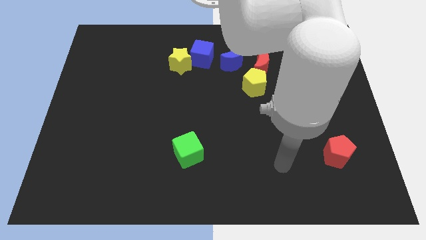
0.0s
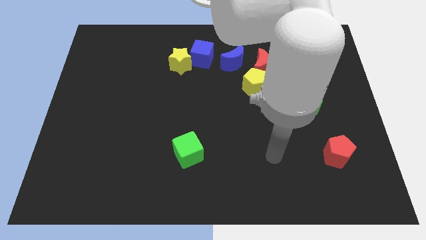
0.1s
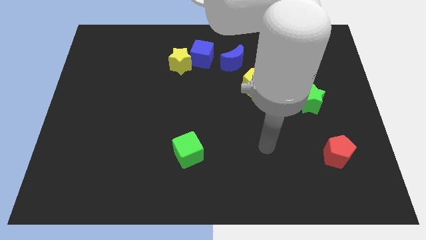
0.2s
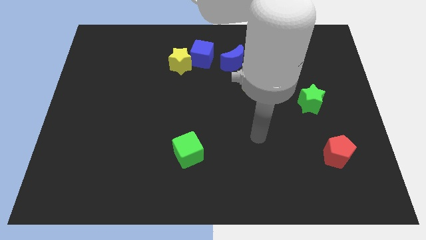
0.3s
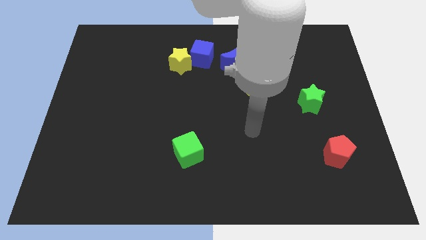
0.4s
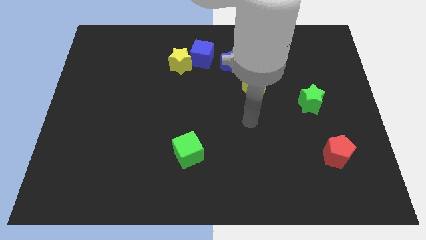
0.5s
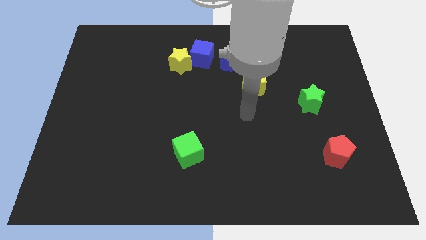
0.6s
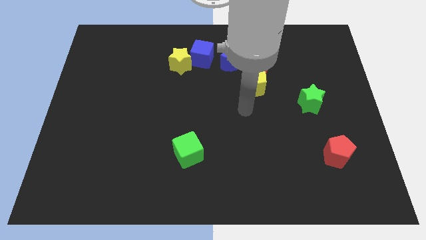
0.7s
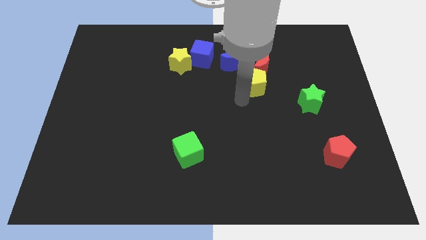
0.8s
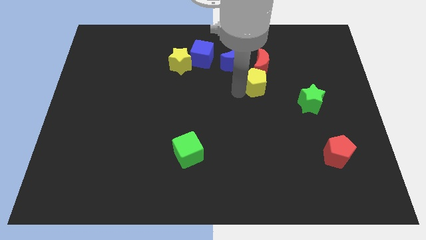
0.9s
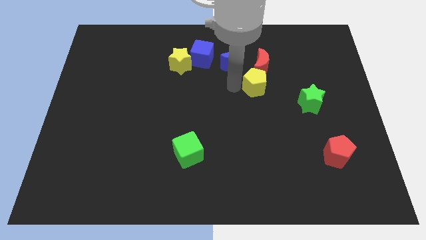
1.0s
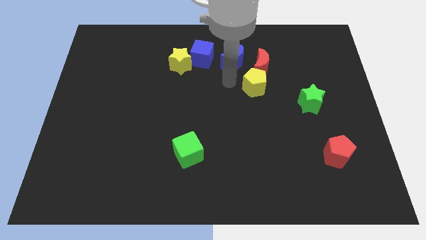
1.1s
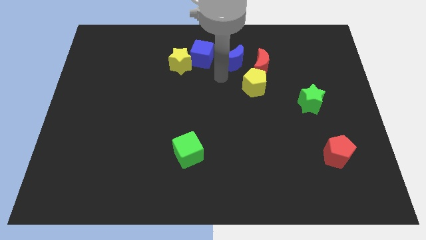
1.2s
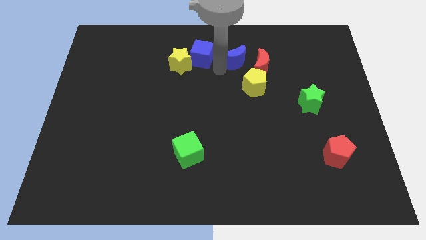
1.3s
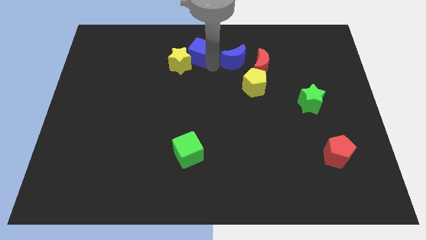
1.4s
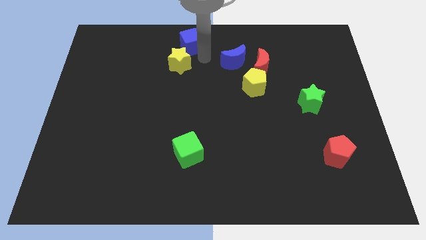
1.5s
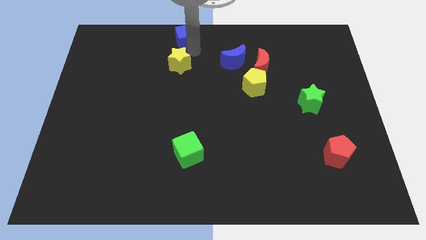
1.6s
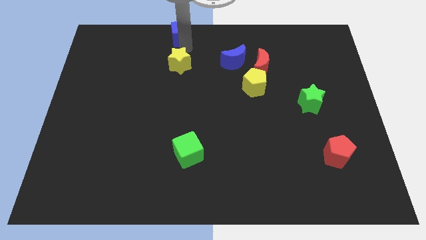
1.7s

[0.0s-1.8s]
pull the yellow star apart from the blue cube

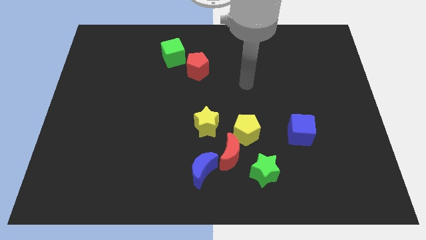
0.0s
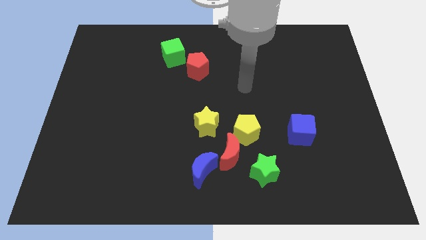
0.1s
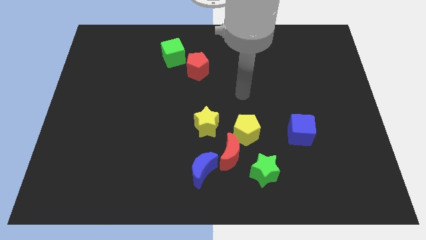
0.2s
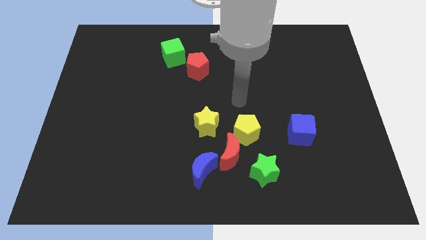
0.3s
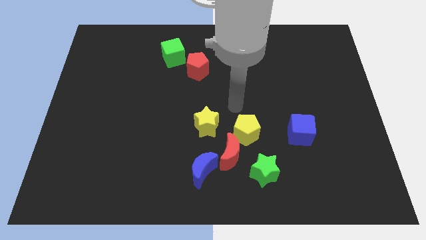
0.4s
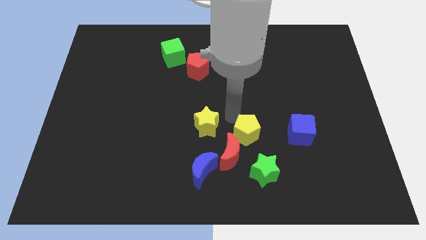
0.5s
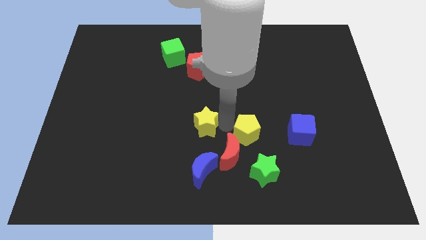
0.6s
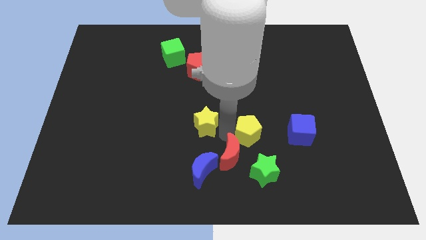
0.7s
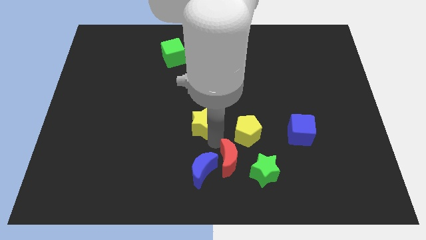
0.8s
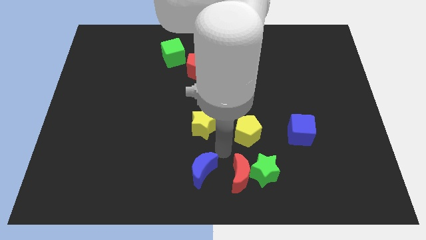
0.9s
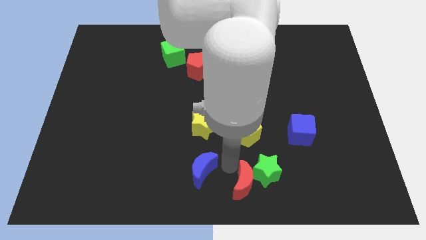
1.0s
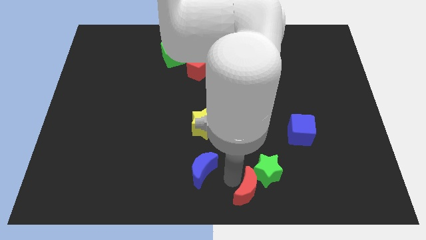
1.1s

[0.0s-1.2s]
move the blue moon away from the red moon

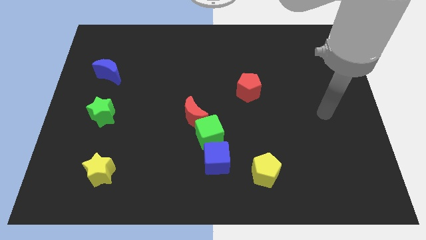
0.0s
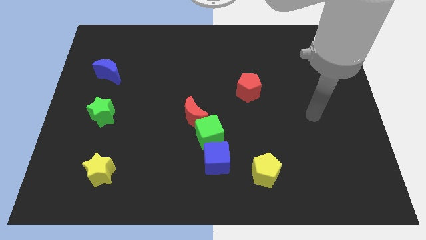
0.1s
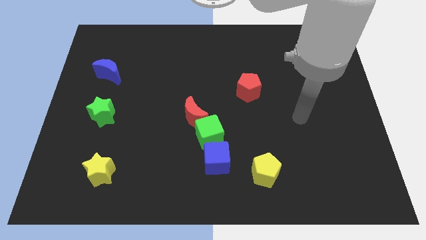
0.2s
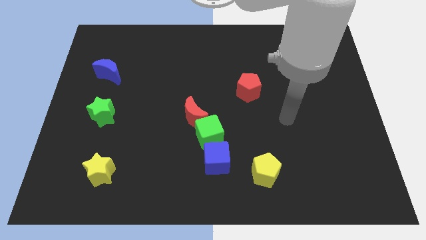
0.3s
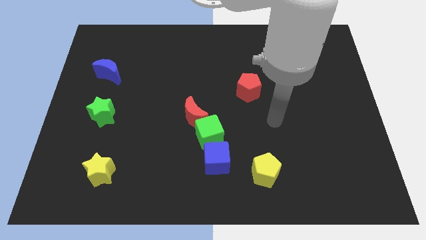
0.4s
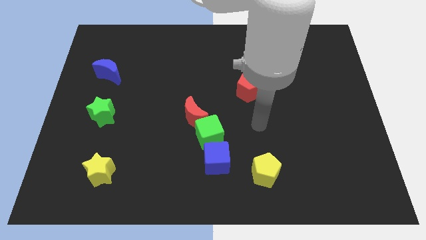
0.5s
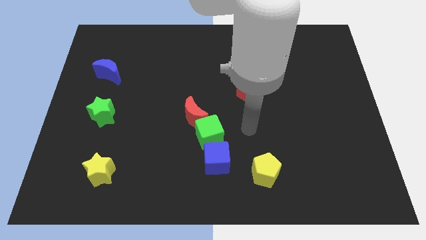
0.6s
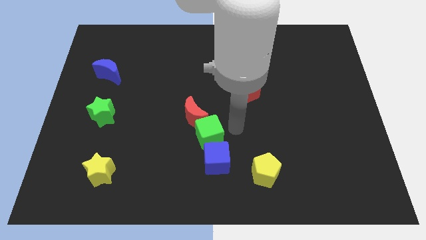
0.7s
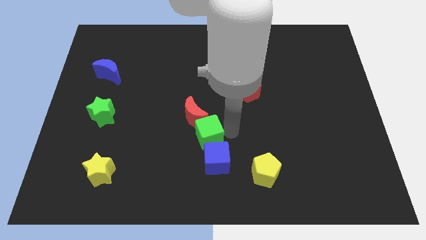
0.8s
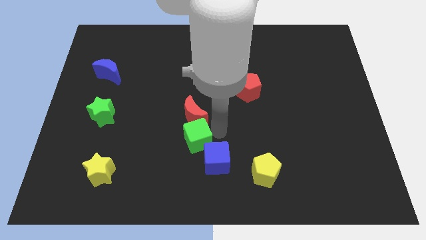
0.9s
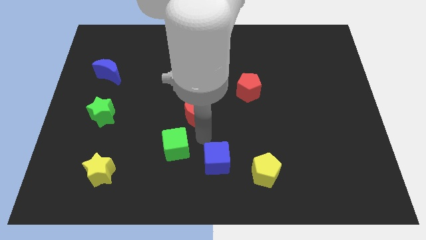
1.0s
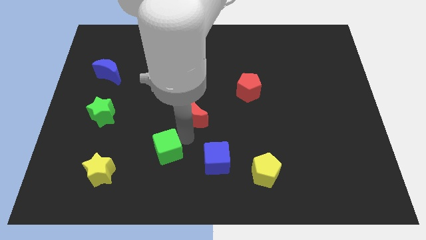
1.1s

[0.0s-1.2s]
move the red moon away from the green cube

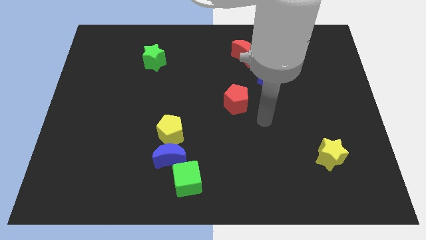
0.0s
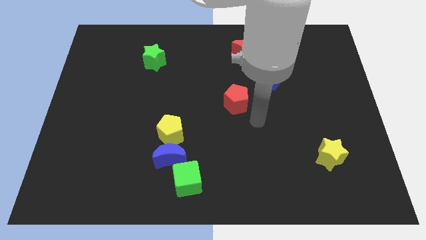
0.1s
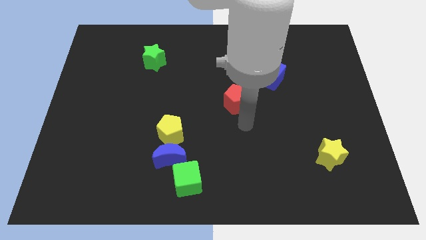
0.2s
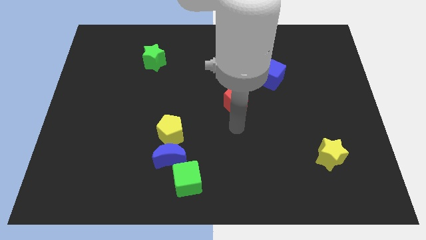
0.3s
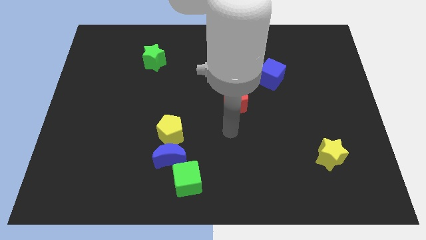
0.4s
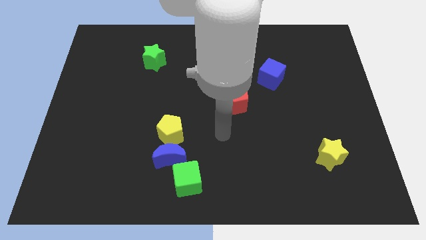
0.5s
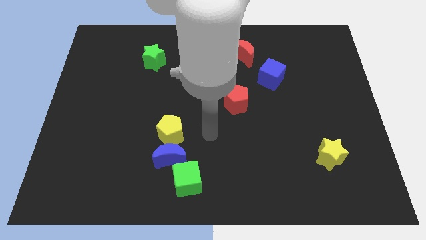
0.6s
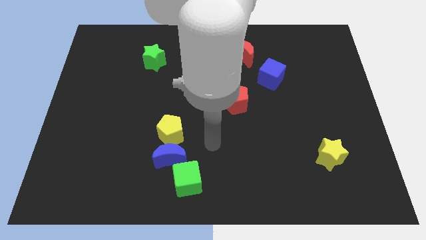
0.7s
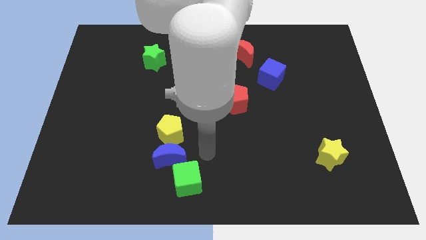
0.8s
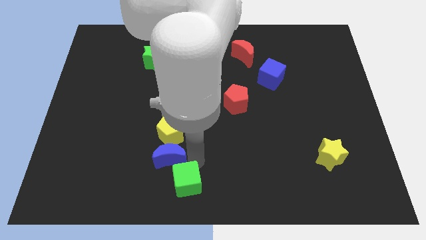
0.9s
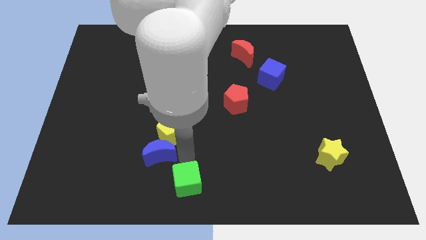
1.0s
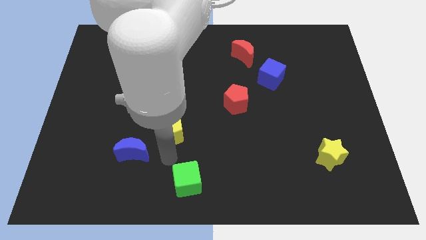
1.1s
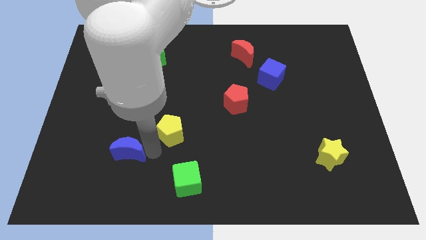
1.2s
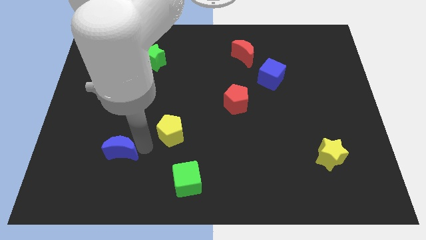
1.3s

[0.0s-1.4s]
separate the yellow pentagon from the blue moon

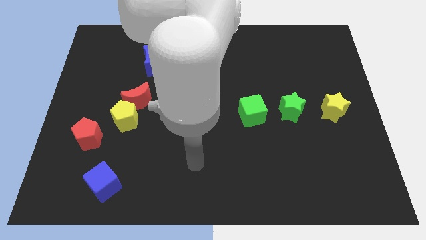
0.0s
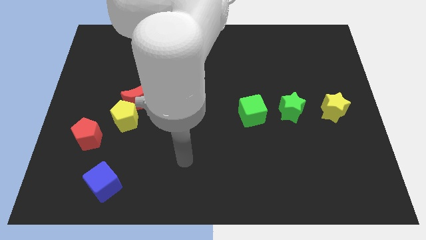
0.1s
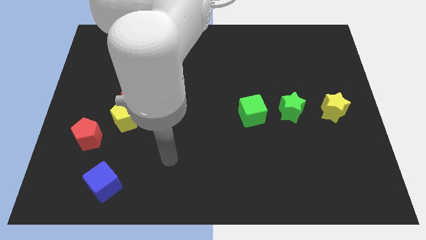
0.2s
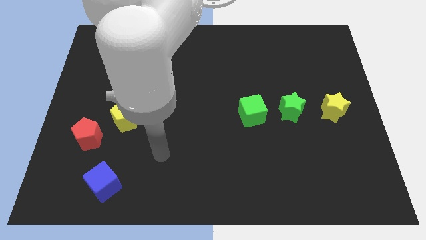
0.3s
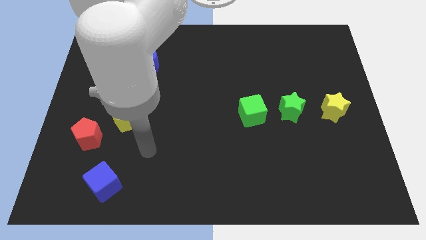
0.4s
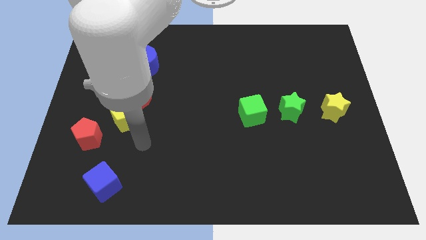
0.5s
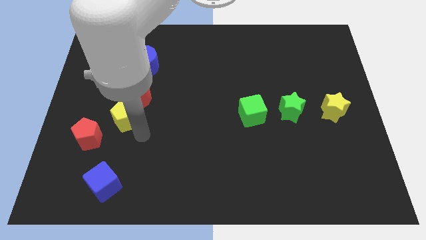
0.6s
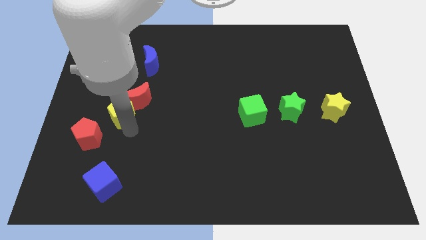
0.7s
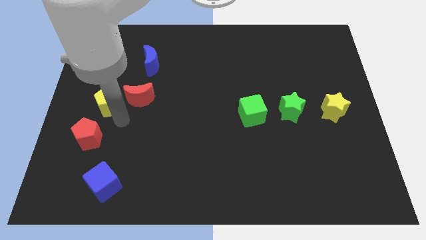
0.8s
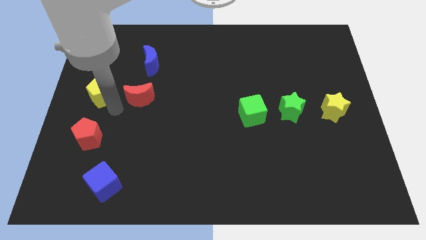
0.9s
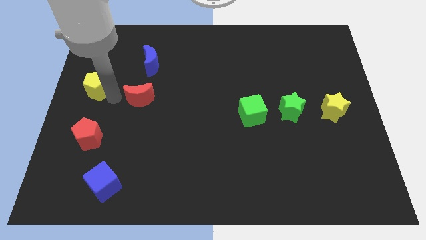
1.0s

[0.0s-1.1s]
separate the red moon from the yellow pentagon

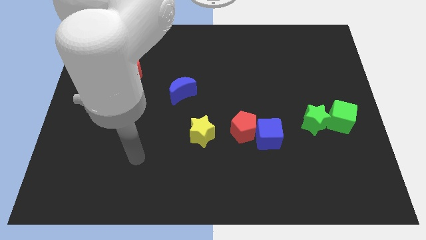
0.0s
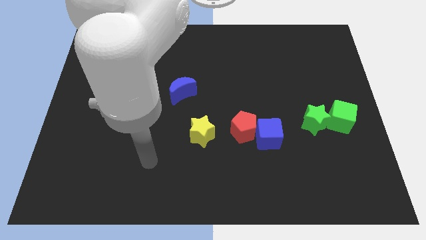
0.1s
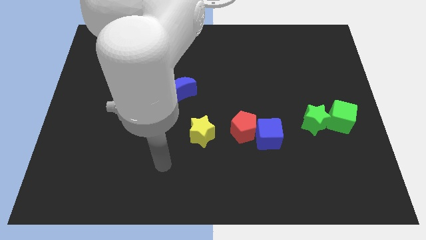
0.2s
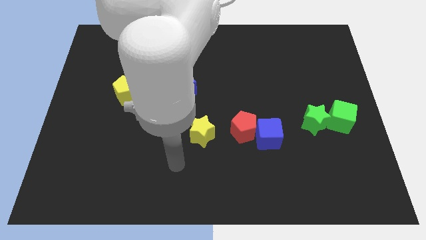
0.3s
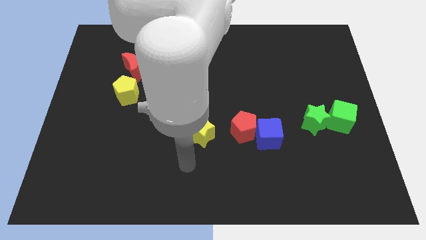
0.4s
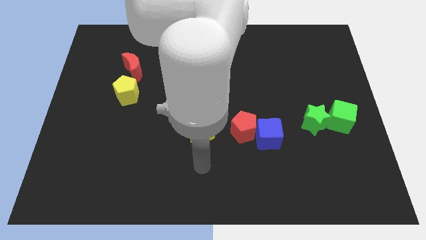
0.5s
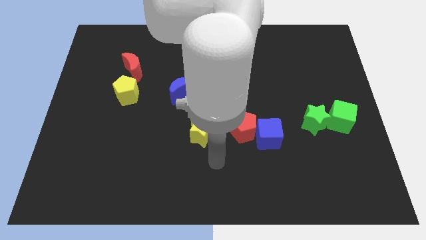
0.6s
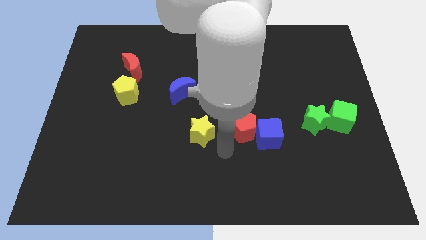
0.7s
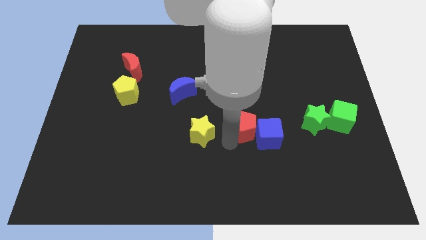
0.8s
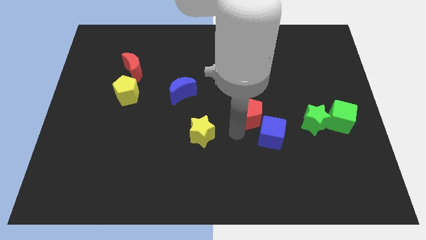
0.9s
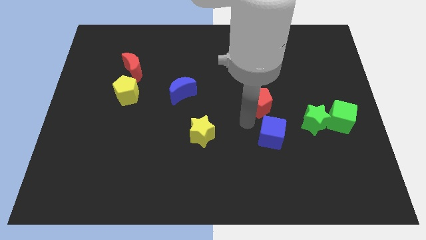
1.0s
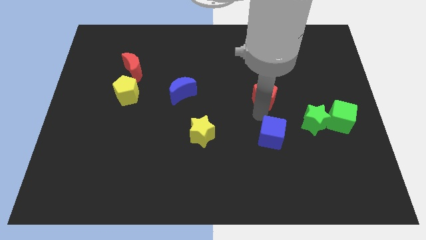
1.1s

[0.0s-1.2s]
move the blue cube away from the red pentagon

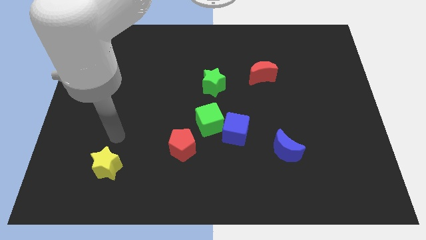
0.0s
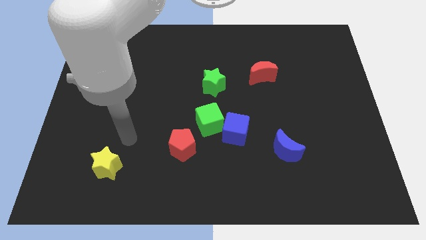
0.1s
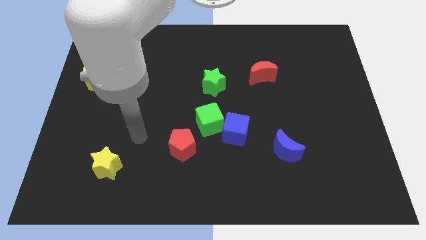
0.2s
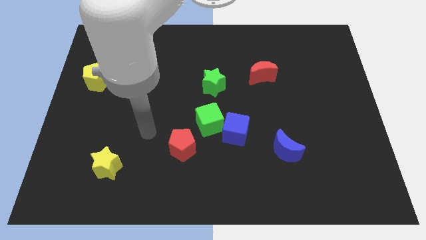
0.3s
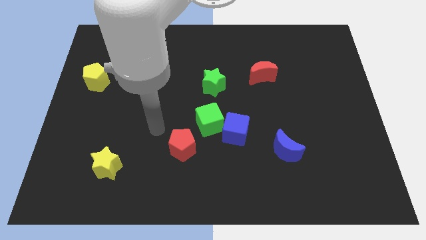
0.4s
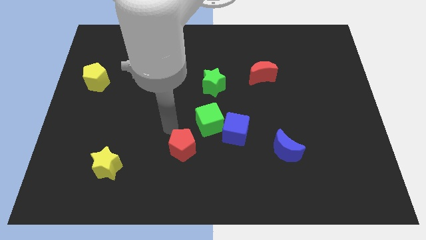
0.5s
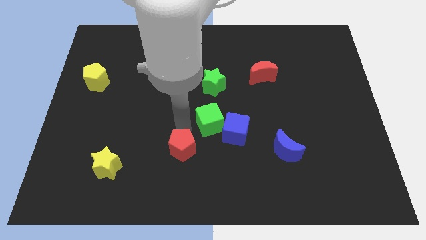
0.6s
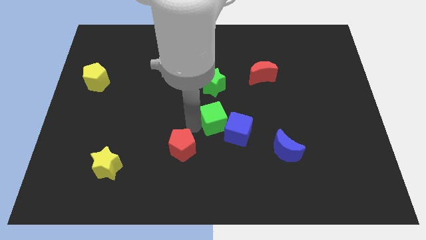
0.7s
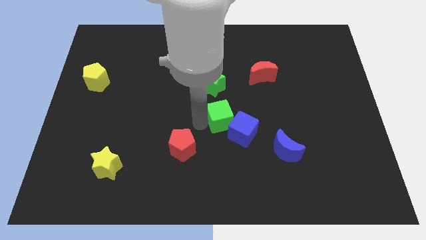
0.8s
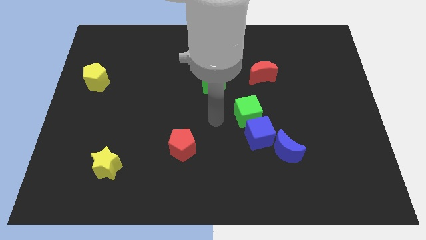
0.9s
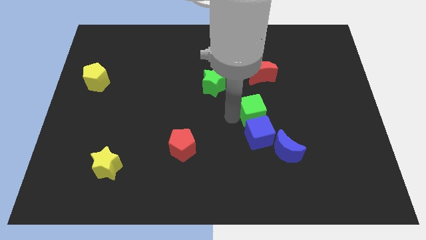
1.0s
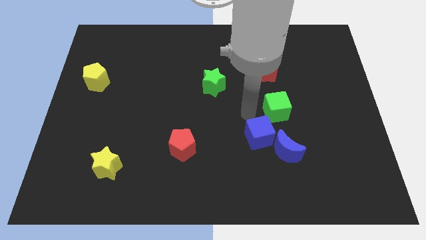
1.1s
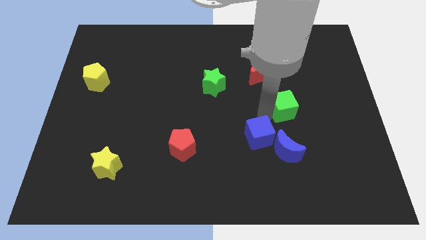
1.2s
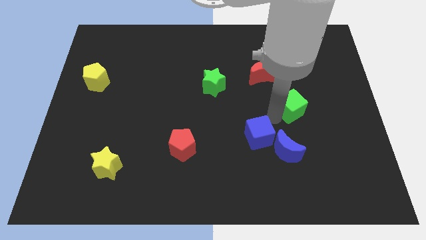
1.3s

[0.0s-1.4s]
pull the blue cube apart from the green cube
